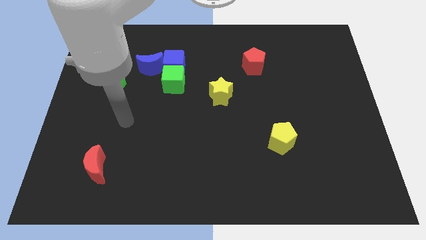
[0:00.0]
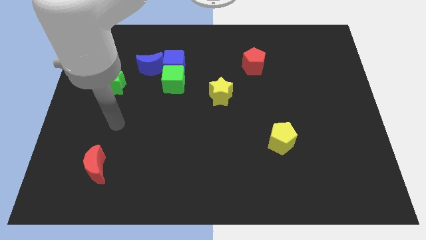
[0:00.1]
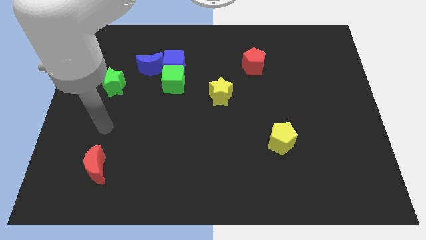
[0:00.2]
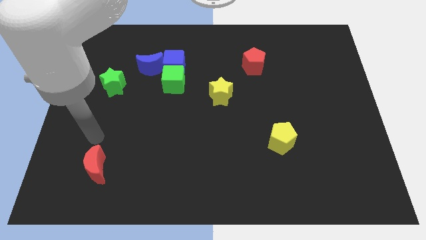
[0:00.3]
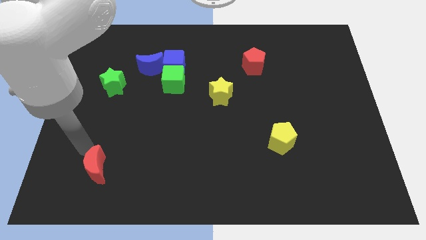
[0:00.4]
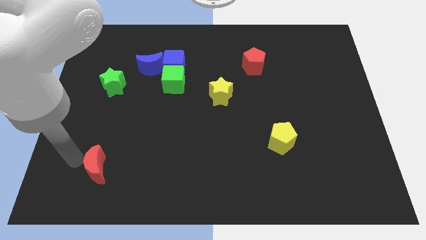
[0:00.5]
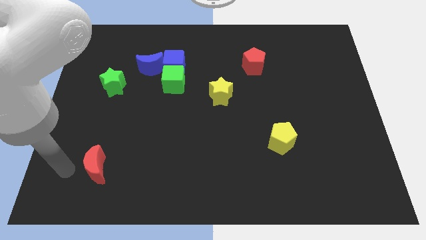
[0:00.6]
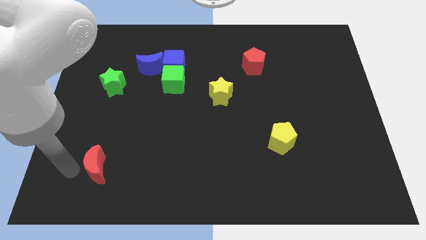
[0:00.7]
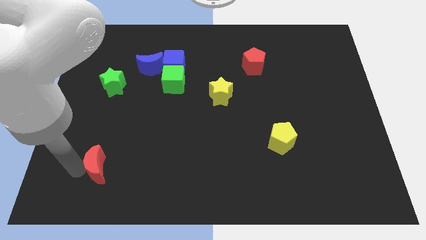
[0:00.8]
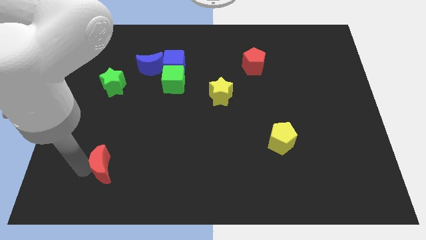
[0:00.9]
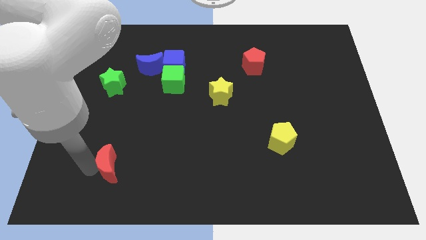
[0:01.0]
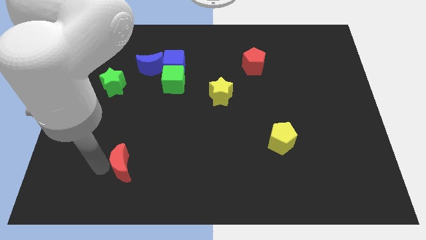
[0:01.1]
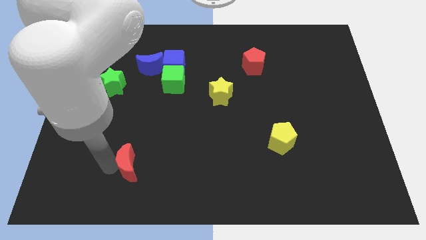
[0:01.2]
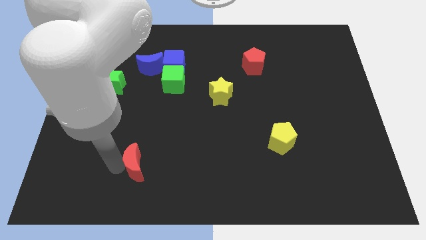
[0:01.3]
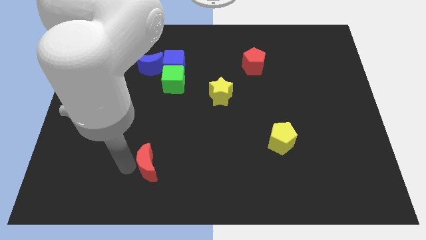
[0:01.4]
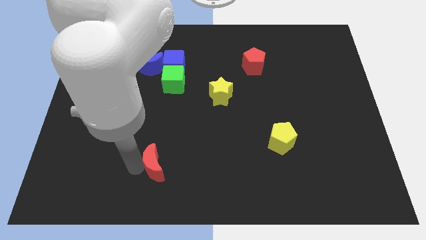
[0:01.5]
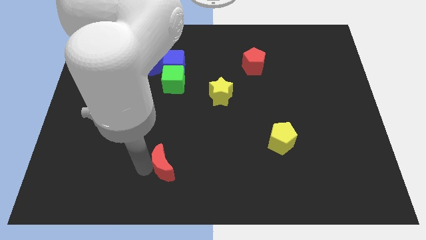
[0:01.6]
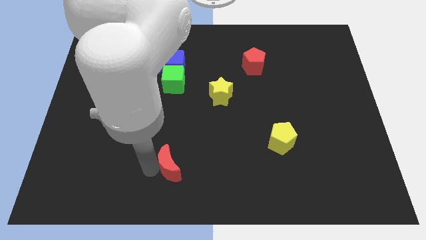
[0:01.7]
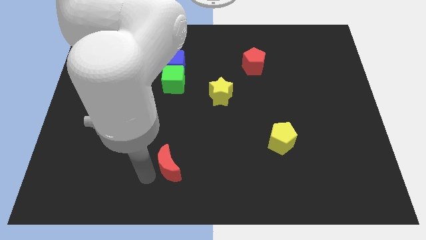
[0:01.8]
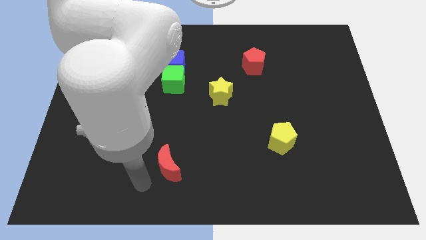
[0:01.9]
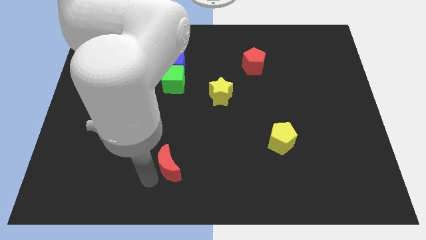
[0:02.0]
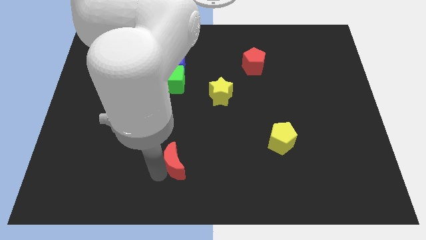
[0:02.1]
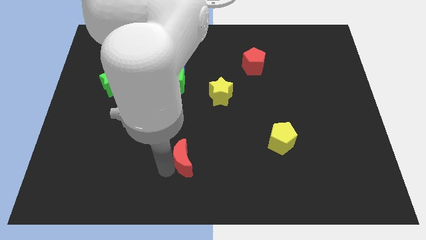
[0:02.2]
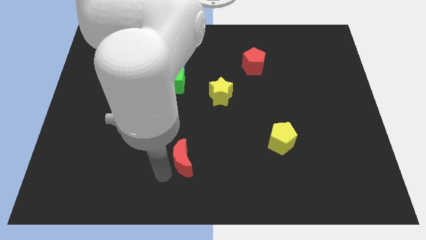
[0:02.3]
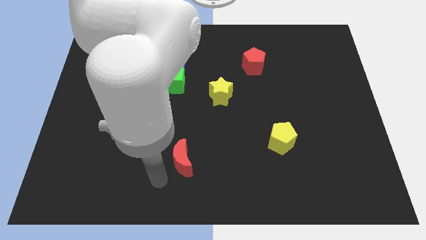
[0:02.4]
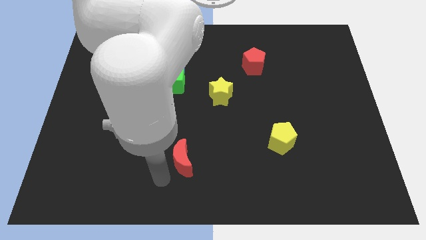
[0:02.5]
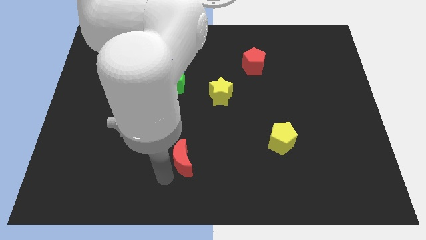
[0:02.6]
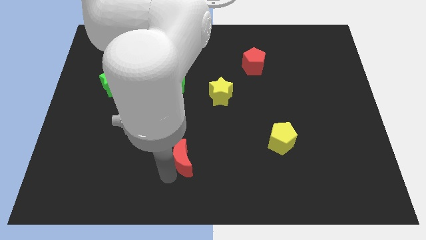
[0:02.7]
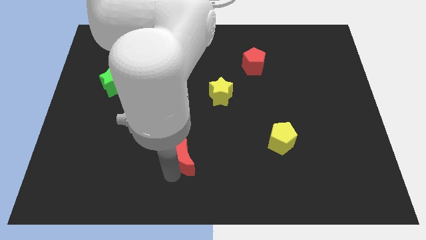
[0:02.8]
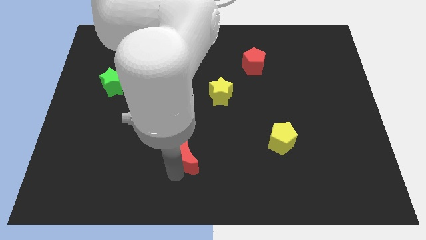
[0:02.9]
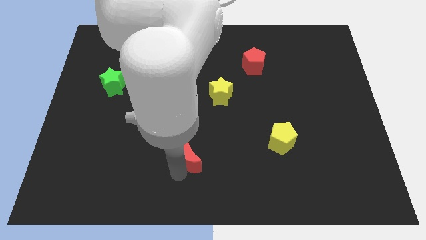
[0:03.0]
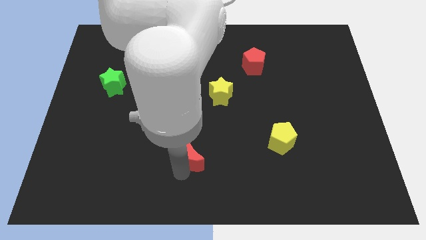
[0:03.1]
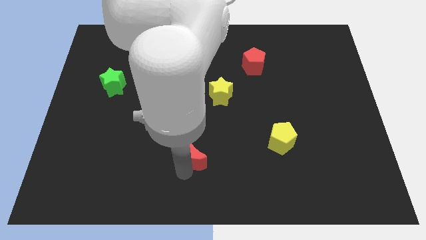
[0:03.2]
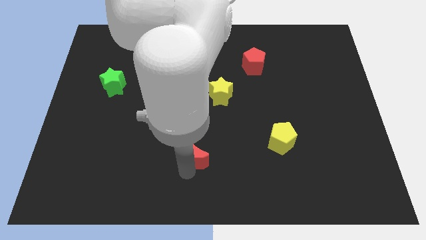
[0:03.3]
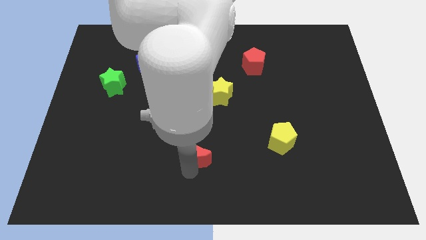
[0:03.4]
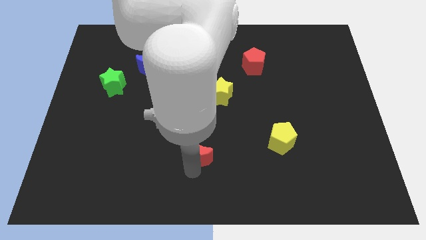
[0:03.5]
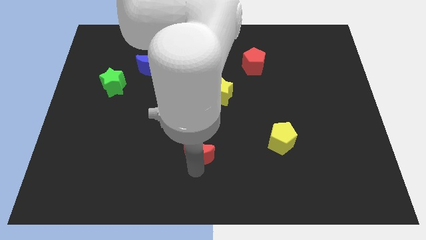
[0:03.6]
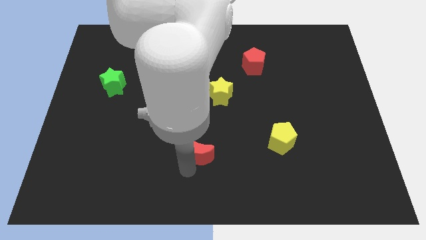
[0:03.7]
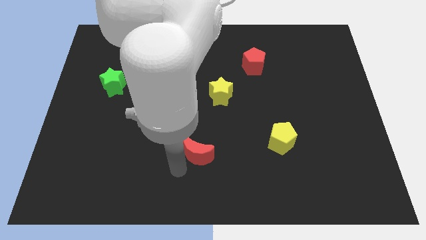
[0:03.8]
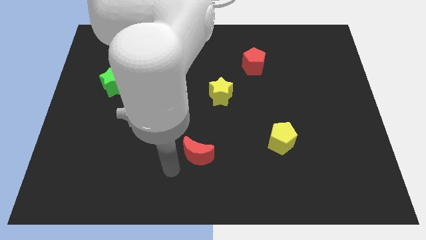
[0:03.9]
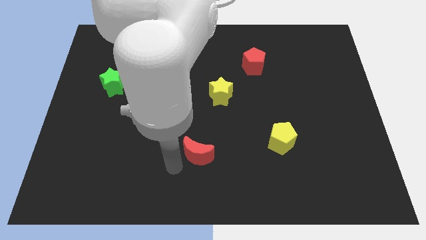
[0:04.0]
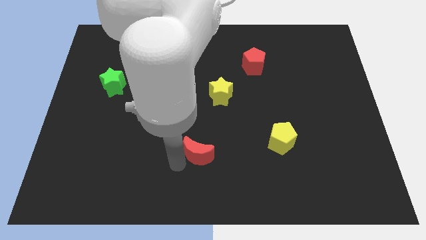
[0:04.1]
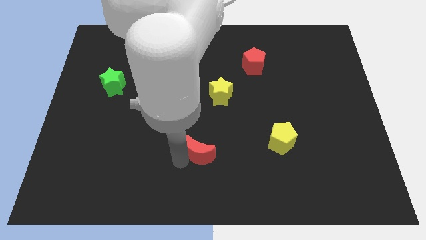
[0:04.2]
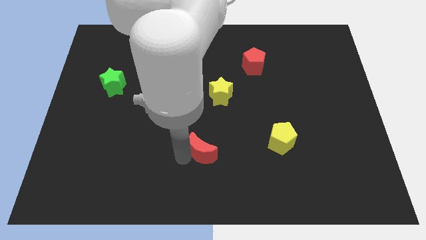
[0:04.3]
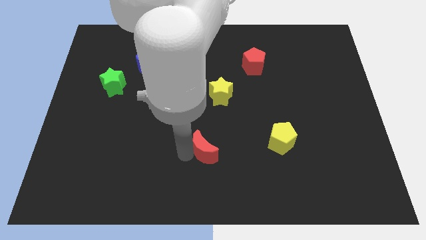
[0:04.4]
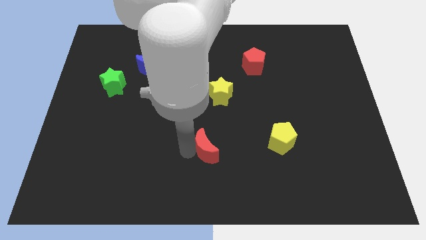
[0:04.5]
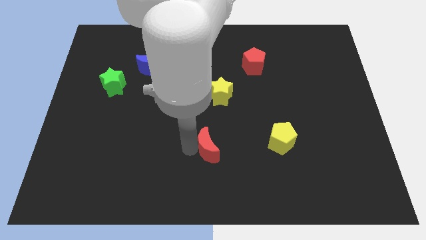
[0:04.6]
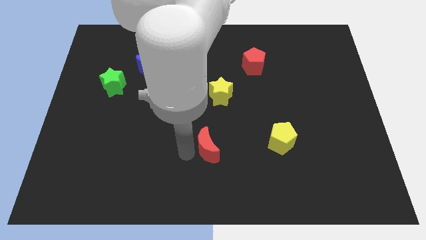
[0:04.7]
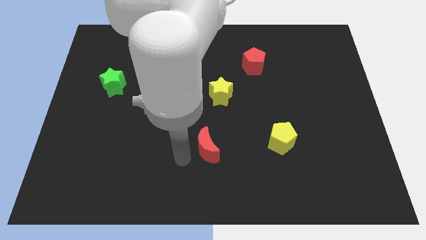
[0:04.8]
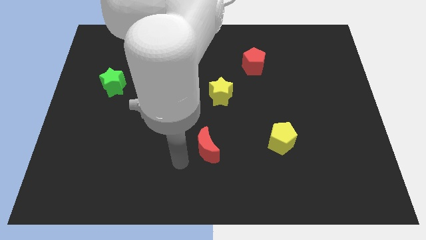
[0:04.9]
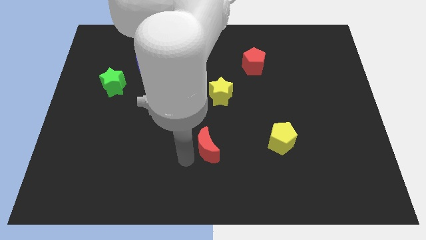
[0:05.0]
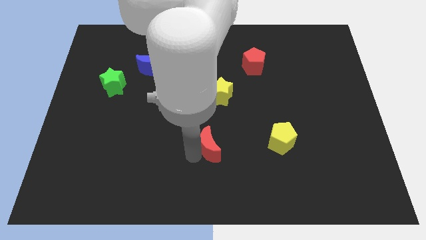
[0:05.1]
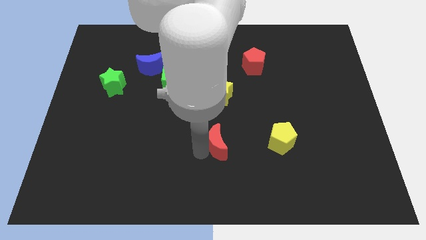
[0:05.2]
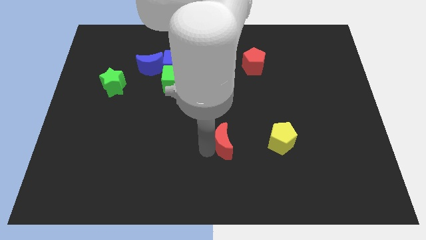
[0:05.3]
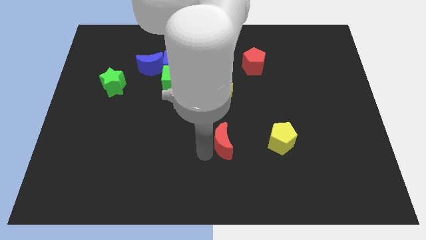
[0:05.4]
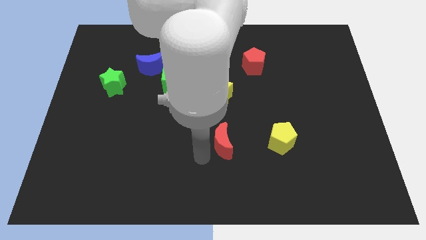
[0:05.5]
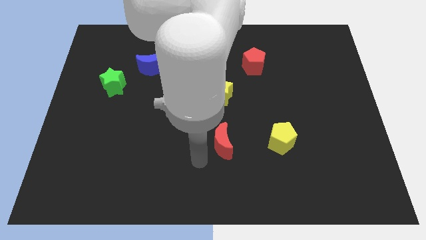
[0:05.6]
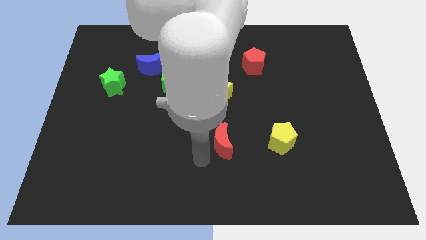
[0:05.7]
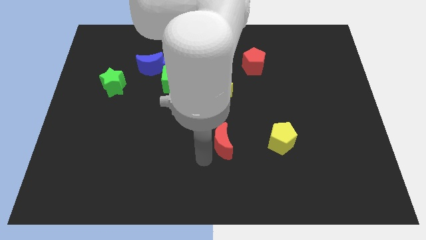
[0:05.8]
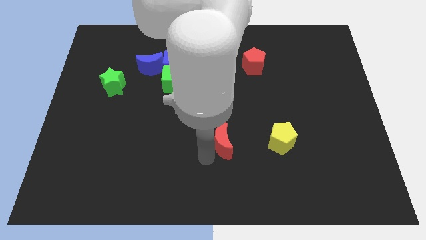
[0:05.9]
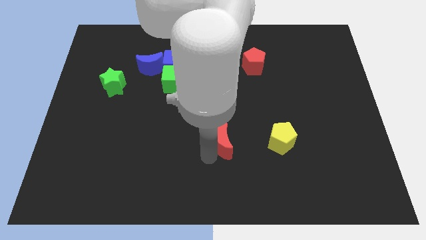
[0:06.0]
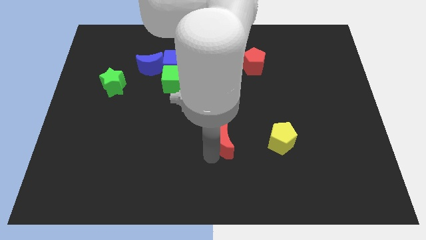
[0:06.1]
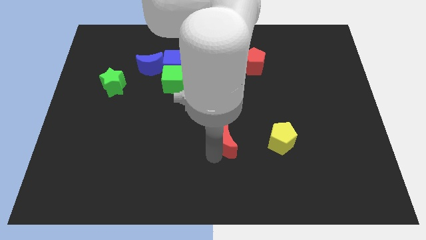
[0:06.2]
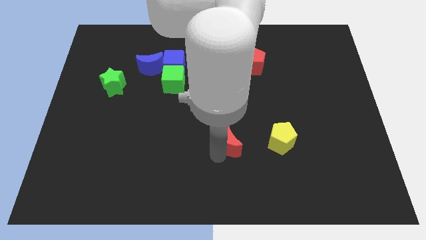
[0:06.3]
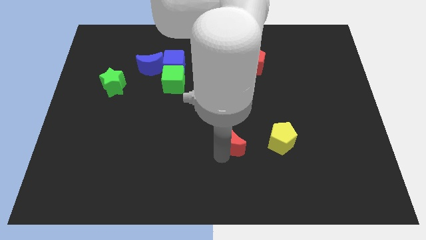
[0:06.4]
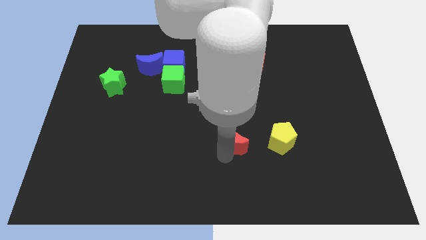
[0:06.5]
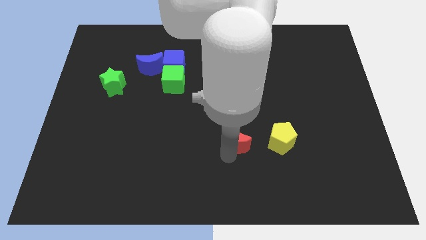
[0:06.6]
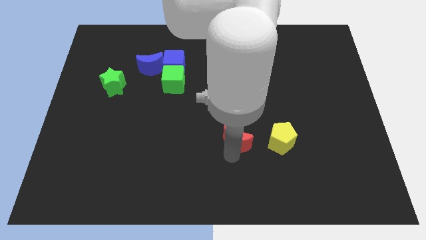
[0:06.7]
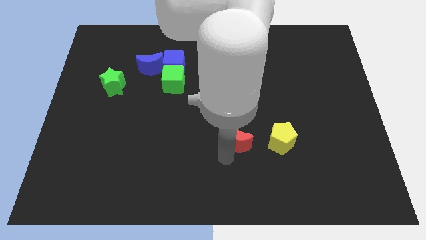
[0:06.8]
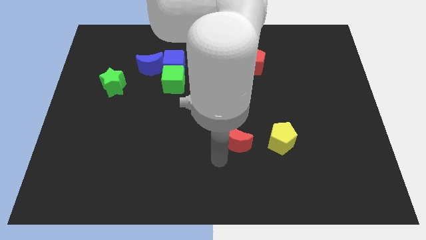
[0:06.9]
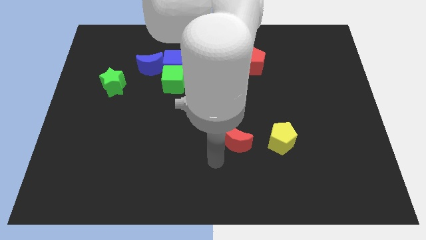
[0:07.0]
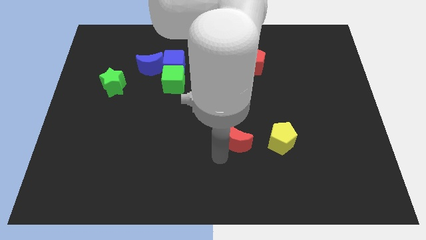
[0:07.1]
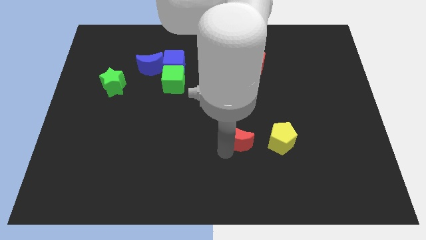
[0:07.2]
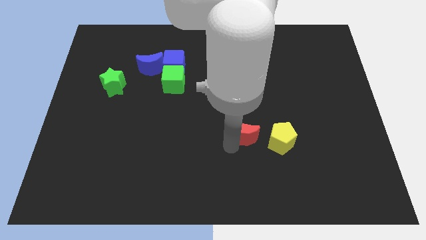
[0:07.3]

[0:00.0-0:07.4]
slide the red moon to the top left of the yellow pentagon
